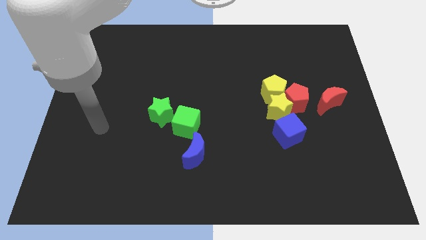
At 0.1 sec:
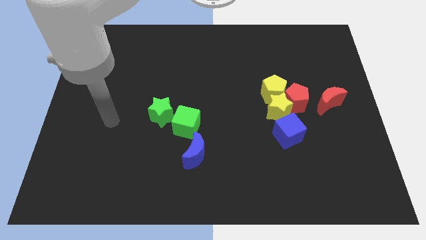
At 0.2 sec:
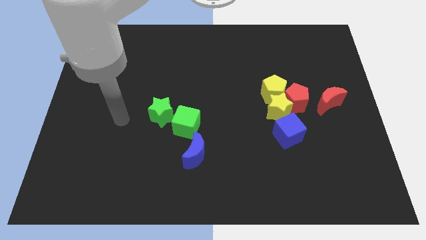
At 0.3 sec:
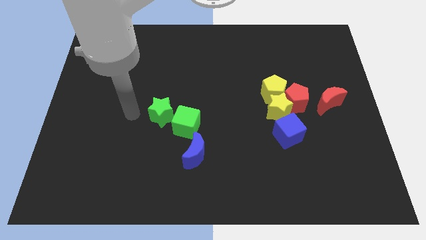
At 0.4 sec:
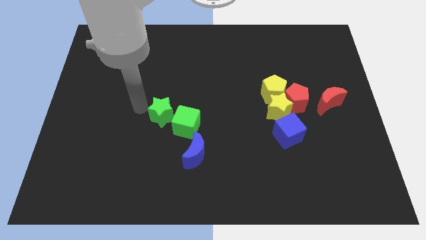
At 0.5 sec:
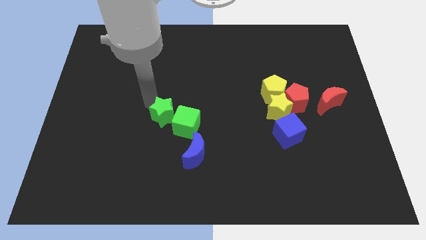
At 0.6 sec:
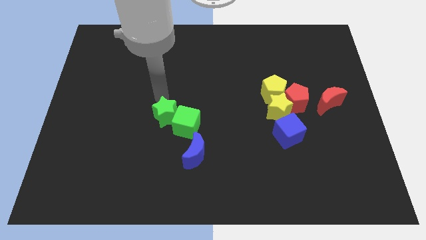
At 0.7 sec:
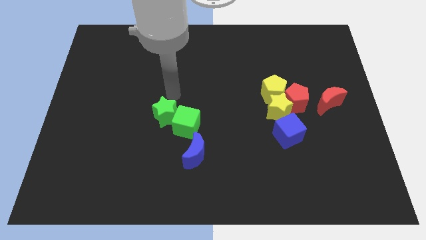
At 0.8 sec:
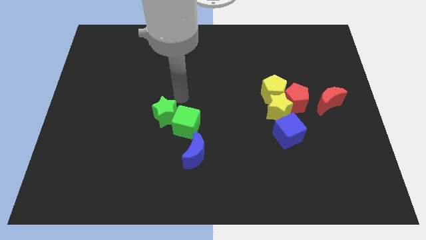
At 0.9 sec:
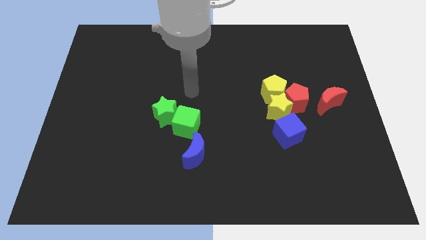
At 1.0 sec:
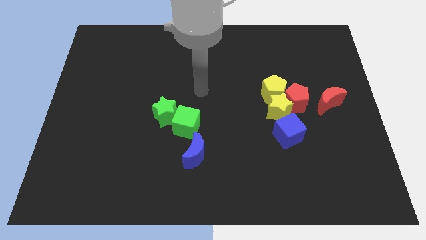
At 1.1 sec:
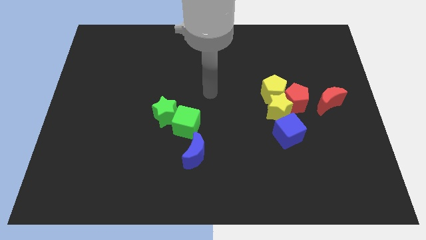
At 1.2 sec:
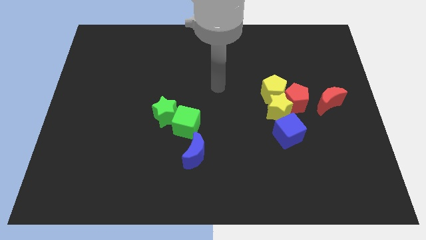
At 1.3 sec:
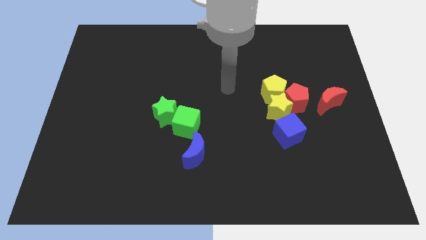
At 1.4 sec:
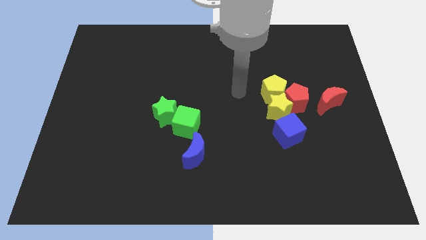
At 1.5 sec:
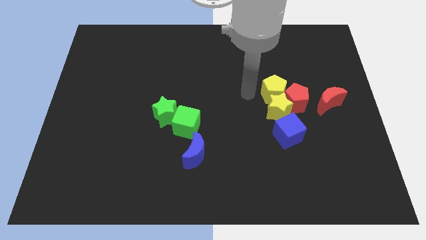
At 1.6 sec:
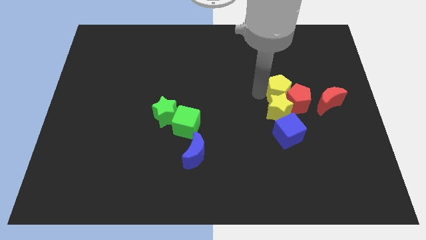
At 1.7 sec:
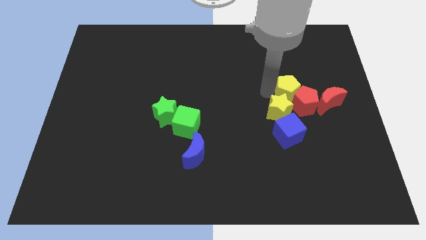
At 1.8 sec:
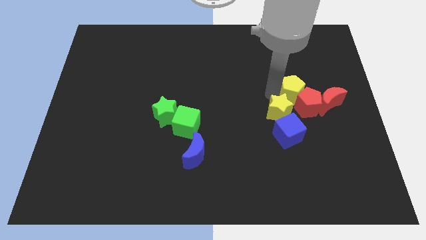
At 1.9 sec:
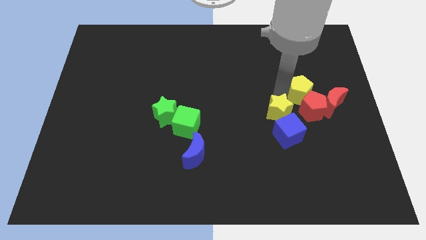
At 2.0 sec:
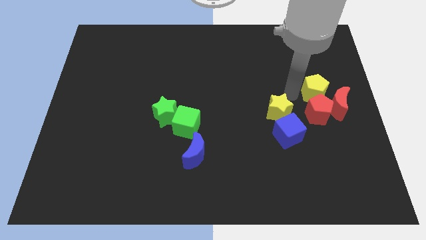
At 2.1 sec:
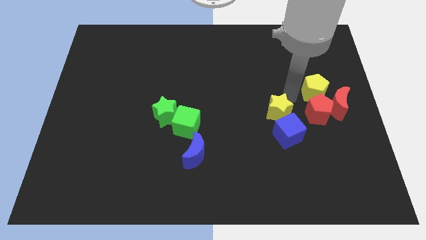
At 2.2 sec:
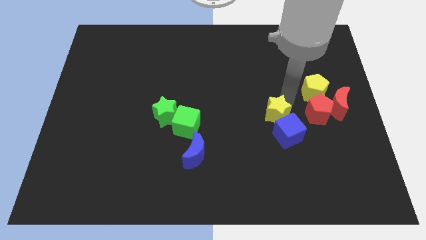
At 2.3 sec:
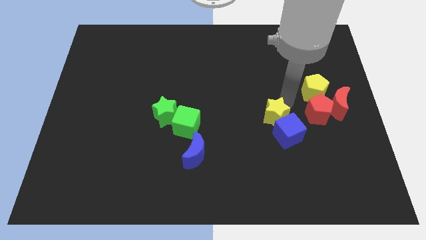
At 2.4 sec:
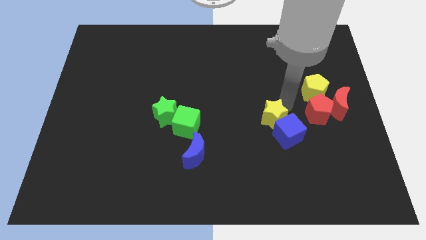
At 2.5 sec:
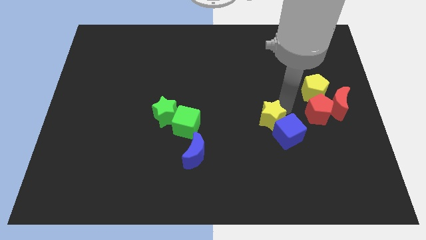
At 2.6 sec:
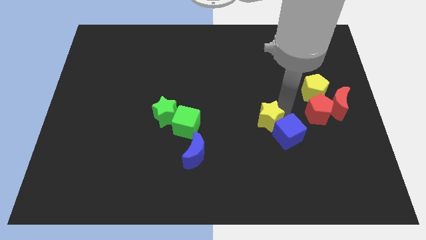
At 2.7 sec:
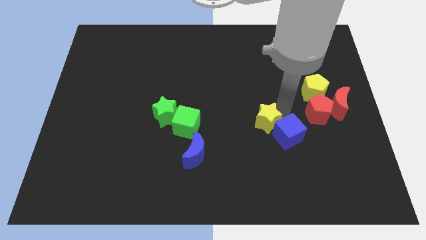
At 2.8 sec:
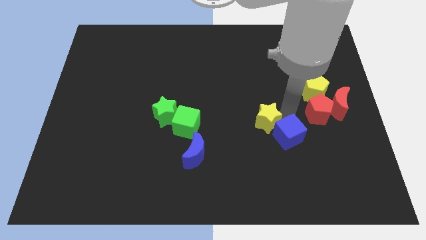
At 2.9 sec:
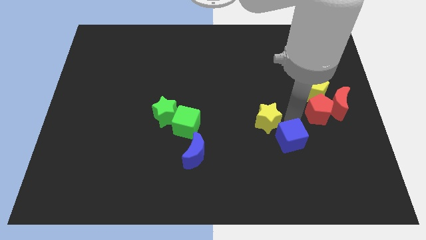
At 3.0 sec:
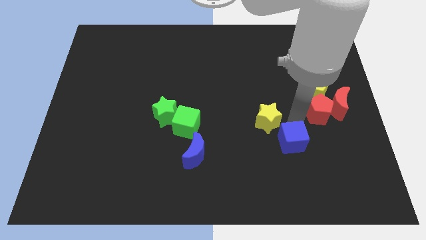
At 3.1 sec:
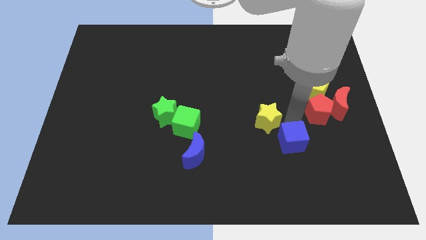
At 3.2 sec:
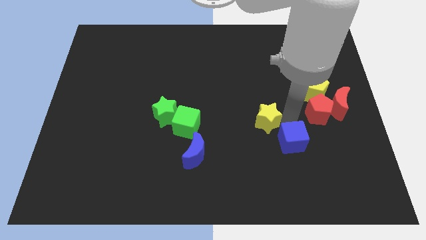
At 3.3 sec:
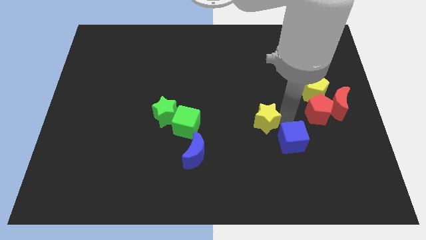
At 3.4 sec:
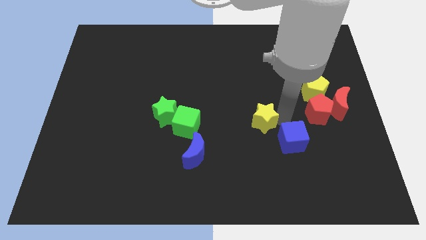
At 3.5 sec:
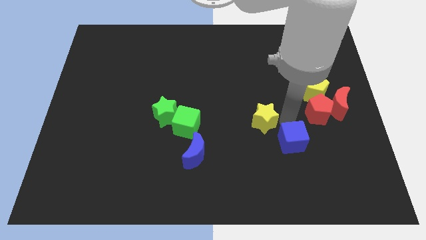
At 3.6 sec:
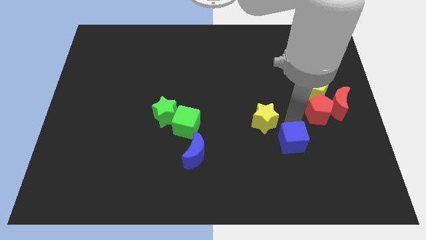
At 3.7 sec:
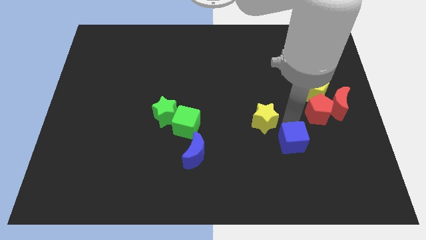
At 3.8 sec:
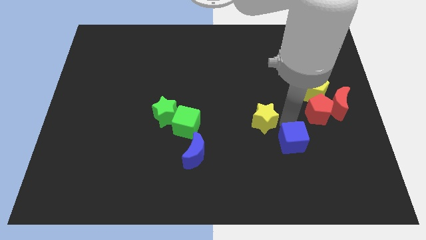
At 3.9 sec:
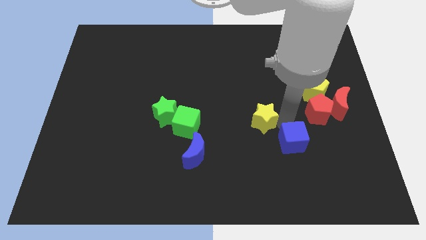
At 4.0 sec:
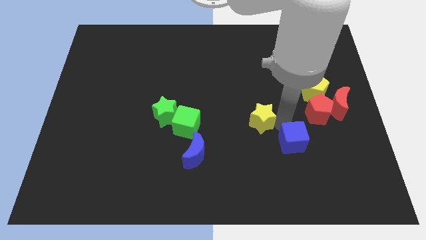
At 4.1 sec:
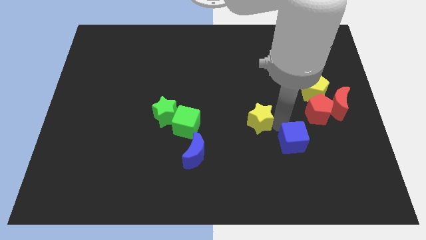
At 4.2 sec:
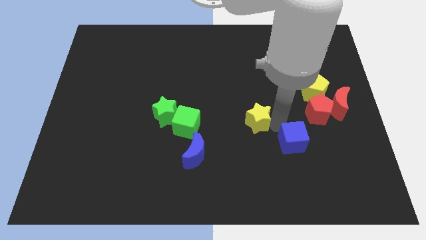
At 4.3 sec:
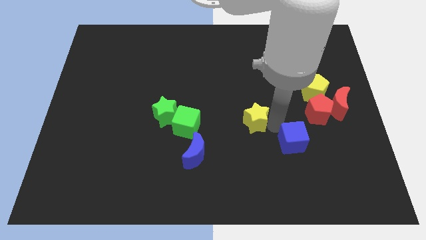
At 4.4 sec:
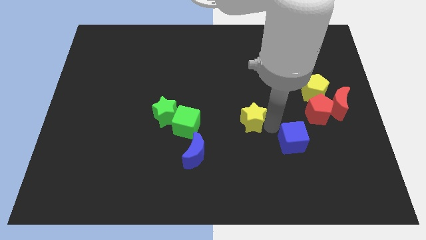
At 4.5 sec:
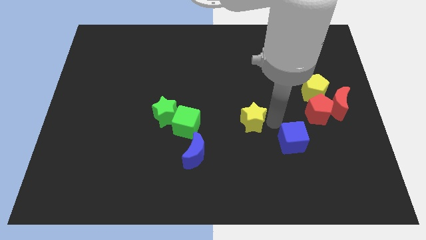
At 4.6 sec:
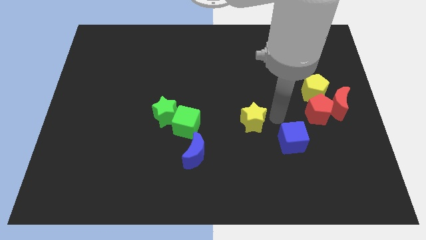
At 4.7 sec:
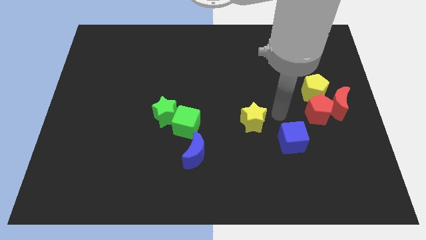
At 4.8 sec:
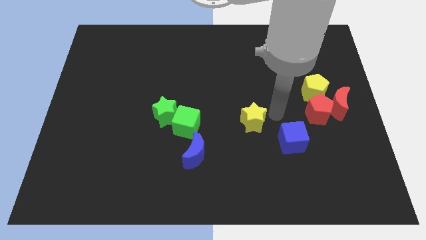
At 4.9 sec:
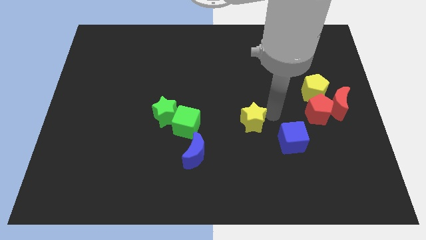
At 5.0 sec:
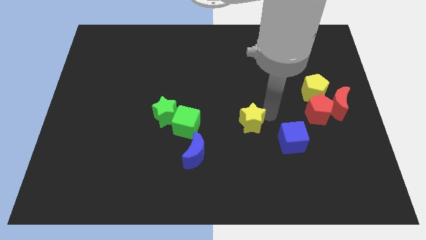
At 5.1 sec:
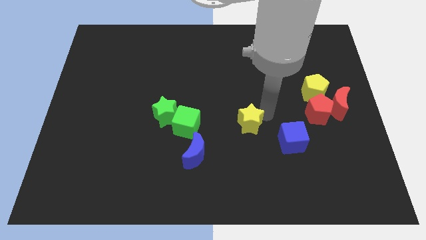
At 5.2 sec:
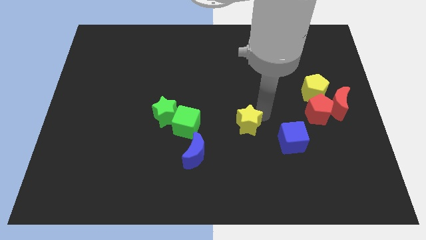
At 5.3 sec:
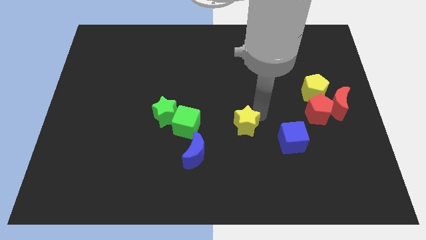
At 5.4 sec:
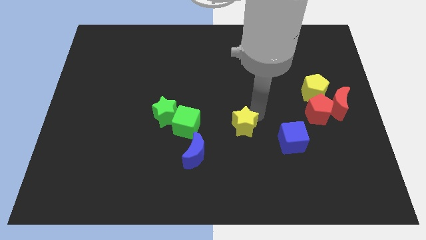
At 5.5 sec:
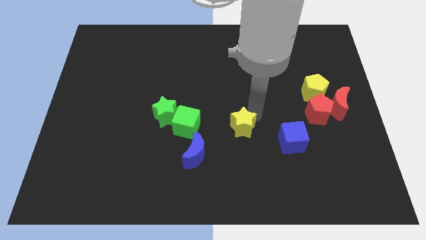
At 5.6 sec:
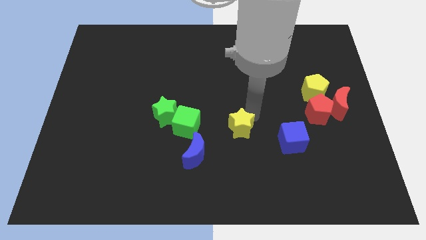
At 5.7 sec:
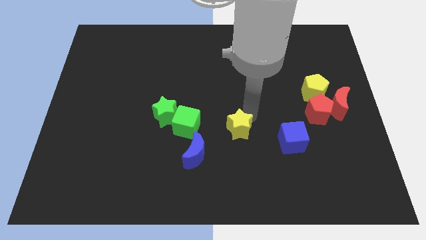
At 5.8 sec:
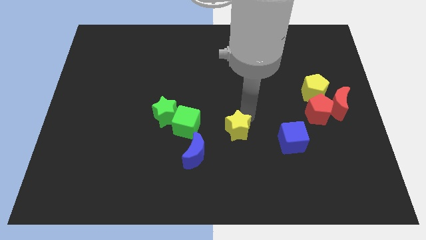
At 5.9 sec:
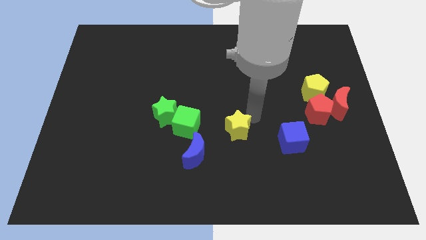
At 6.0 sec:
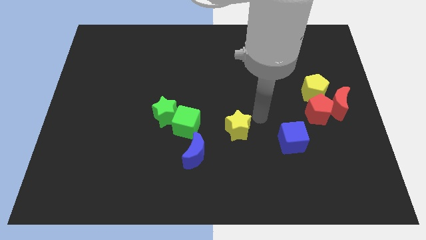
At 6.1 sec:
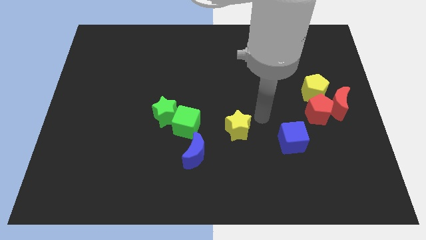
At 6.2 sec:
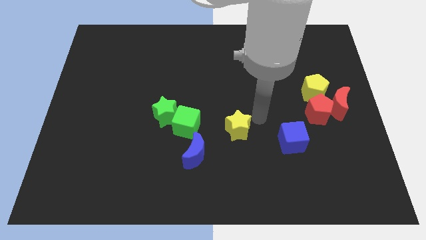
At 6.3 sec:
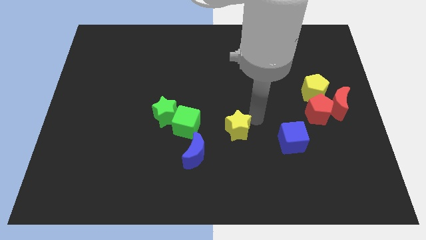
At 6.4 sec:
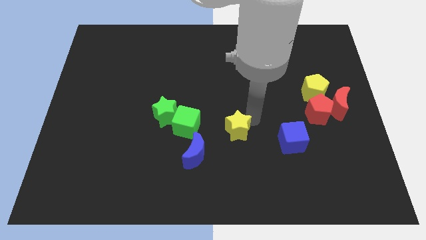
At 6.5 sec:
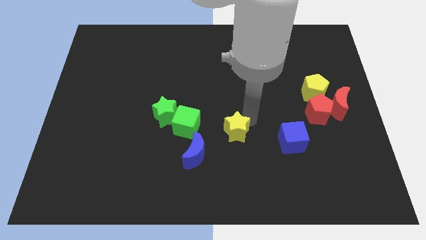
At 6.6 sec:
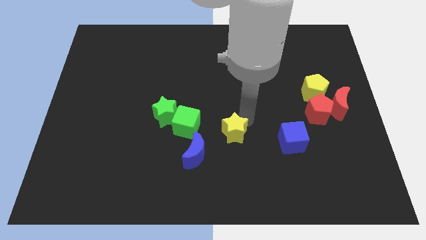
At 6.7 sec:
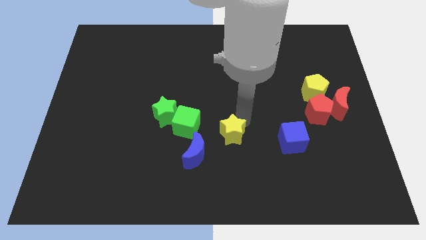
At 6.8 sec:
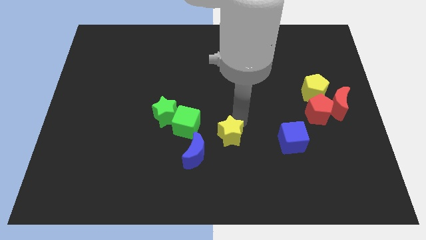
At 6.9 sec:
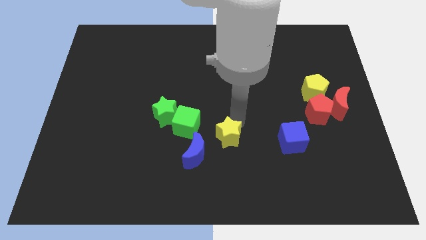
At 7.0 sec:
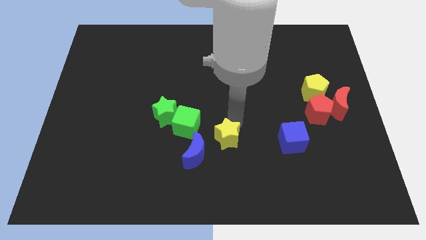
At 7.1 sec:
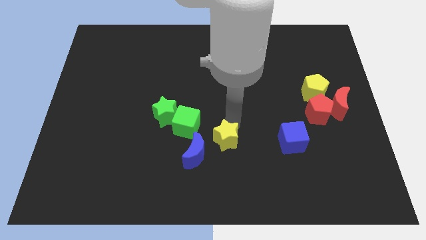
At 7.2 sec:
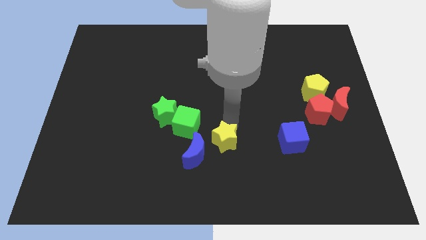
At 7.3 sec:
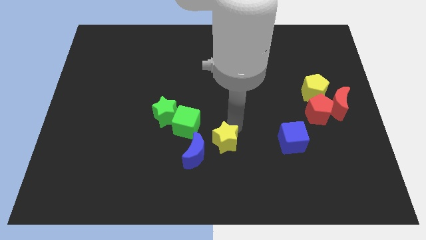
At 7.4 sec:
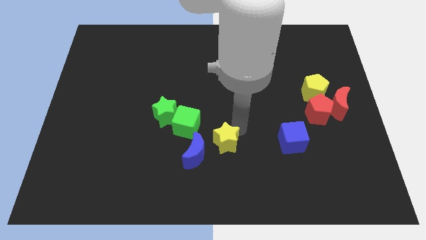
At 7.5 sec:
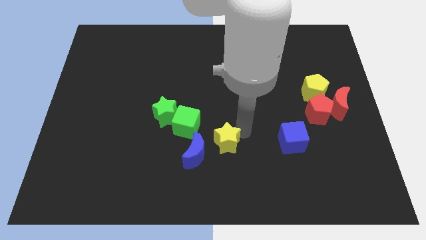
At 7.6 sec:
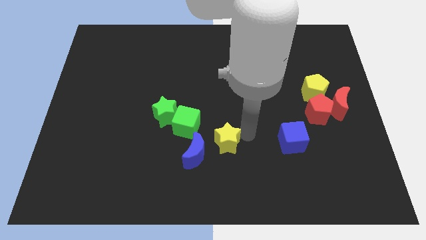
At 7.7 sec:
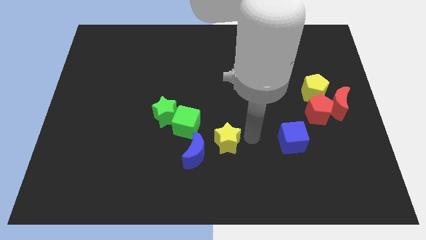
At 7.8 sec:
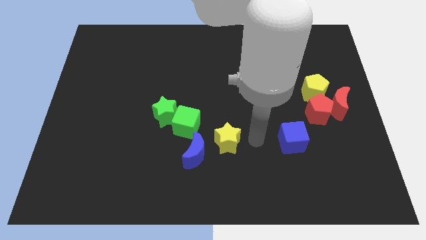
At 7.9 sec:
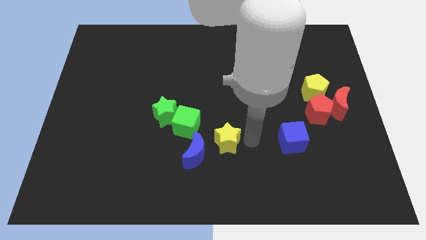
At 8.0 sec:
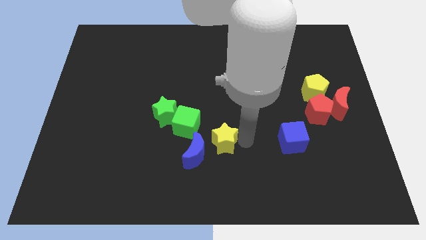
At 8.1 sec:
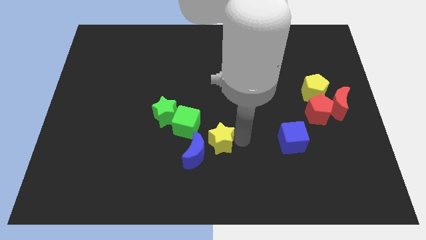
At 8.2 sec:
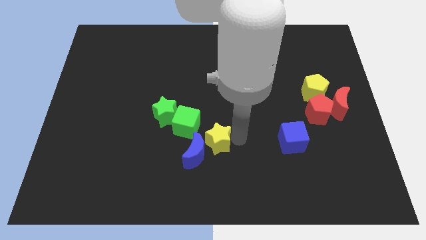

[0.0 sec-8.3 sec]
move the yellow star close to the blue moon
